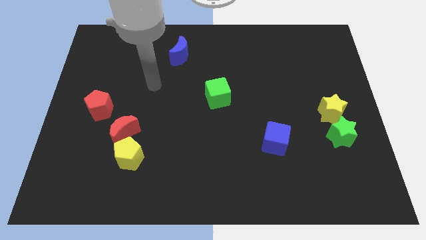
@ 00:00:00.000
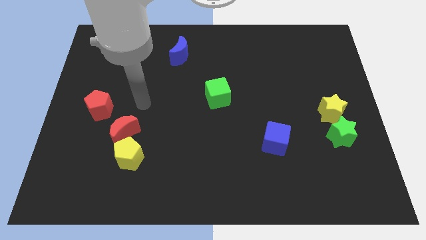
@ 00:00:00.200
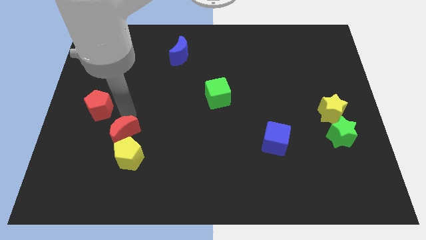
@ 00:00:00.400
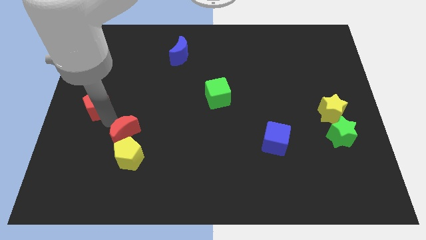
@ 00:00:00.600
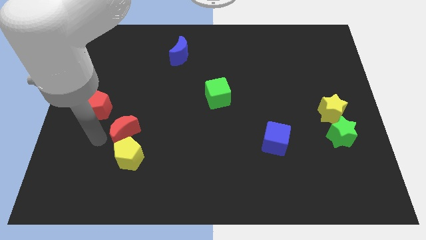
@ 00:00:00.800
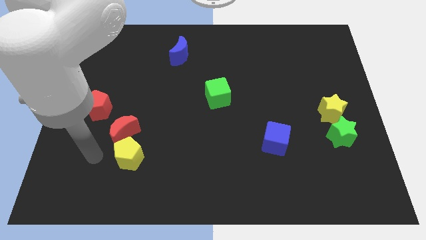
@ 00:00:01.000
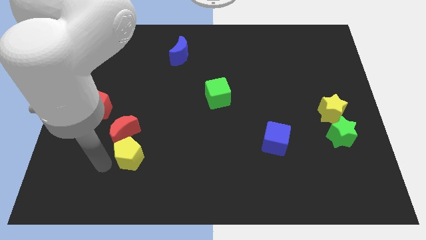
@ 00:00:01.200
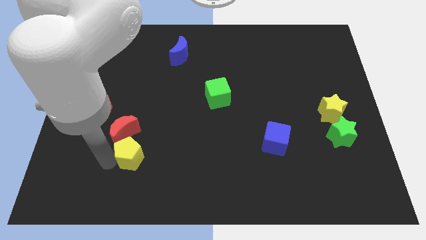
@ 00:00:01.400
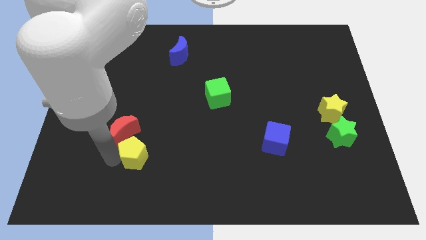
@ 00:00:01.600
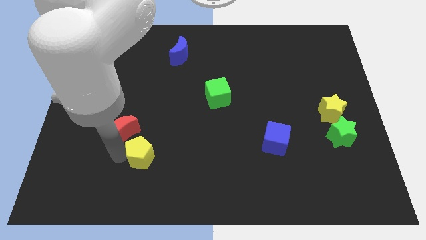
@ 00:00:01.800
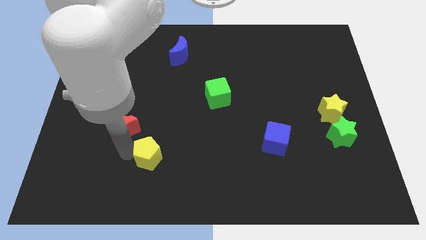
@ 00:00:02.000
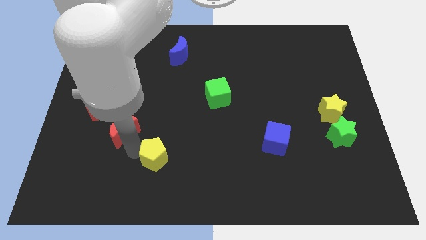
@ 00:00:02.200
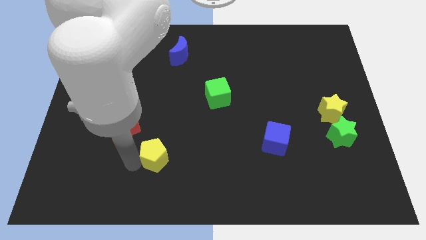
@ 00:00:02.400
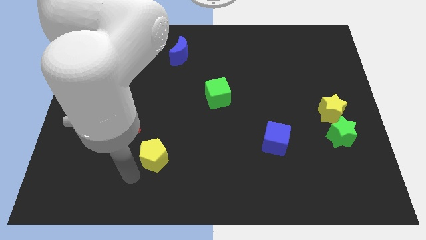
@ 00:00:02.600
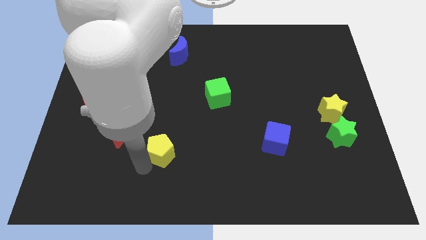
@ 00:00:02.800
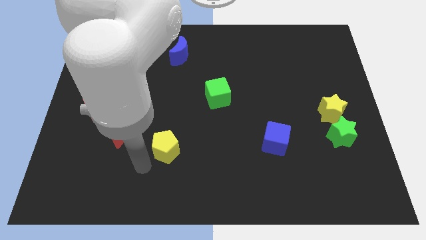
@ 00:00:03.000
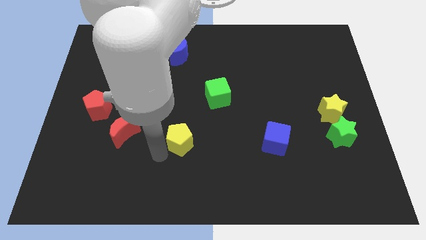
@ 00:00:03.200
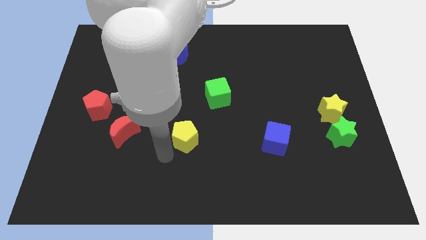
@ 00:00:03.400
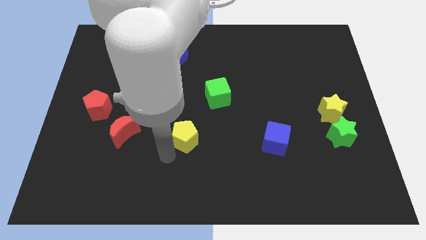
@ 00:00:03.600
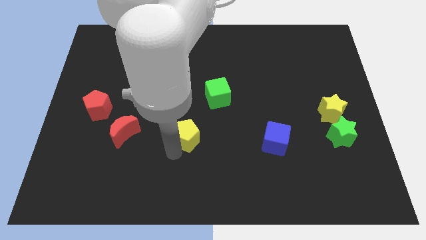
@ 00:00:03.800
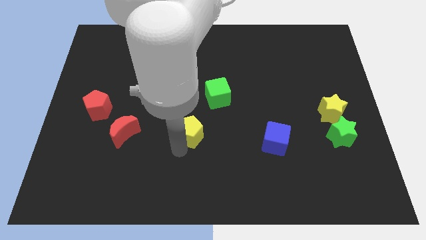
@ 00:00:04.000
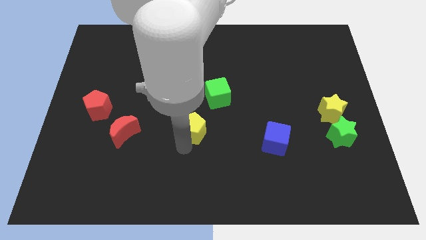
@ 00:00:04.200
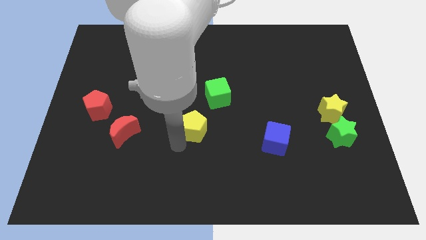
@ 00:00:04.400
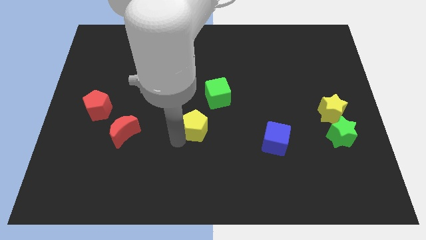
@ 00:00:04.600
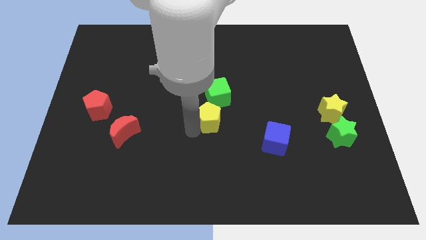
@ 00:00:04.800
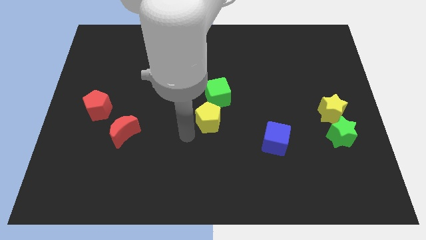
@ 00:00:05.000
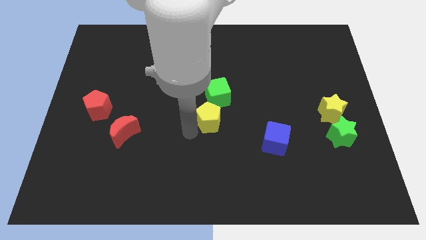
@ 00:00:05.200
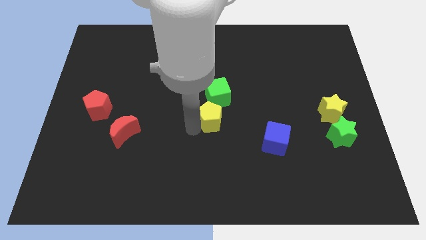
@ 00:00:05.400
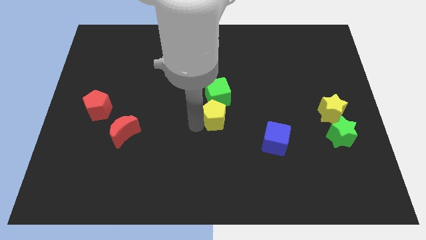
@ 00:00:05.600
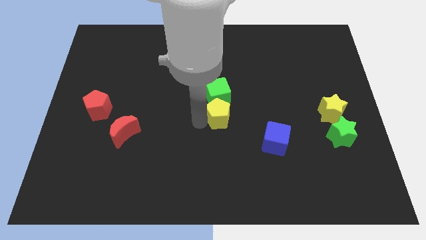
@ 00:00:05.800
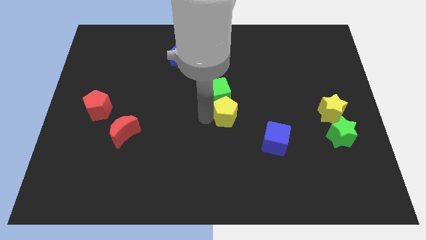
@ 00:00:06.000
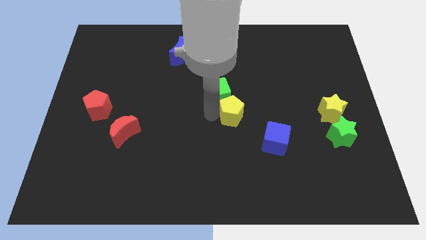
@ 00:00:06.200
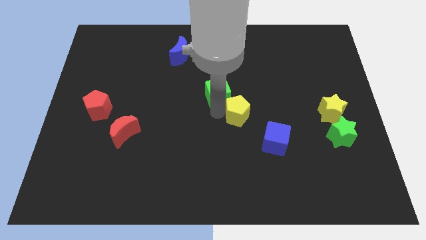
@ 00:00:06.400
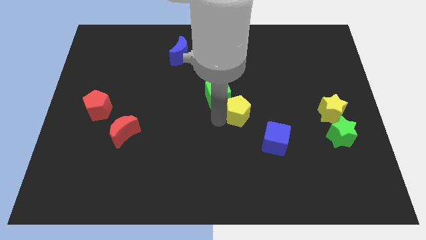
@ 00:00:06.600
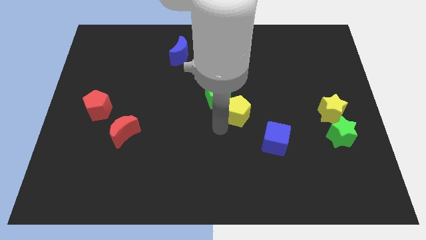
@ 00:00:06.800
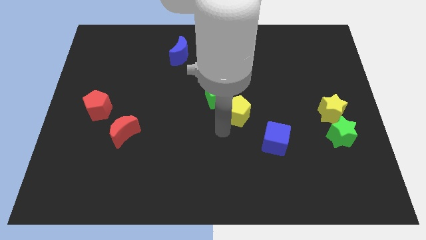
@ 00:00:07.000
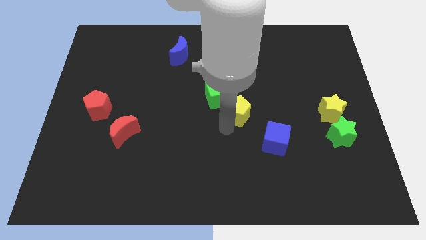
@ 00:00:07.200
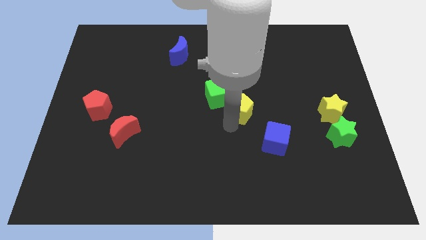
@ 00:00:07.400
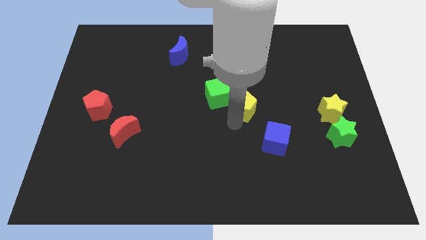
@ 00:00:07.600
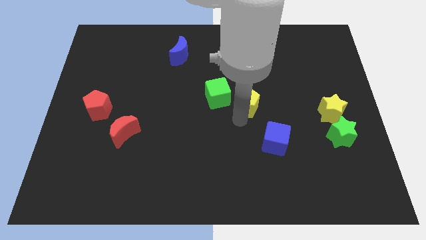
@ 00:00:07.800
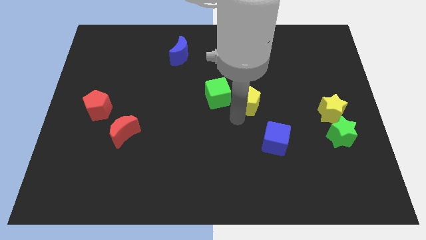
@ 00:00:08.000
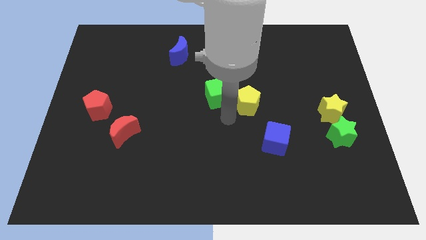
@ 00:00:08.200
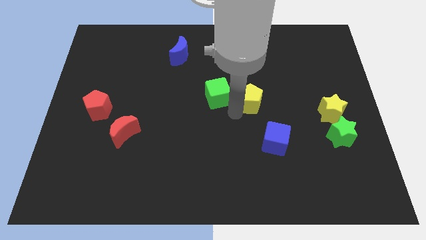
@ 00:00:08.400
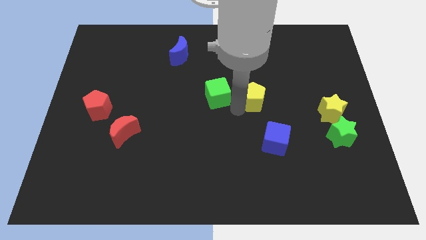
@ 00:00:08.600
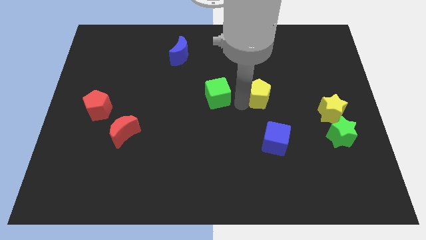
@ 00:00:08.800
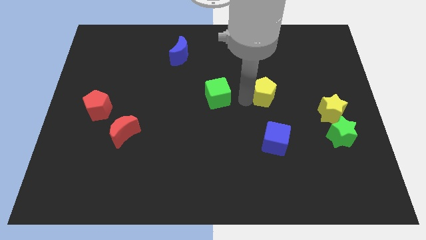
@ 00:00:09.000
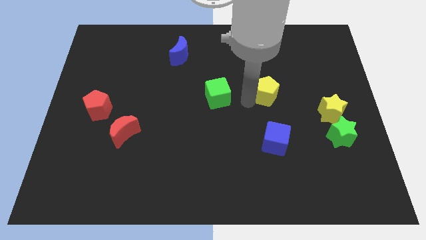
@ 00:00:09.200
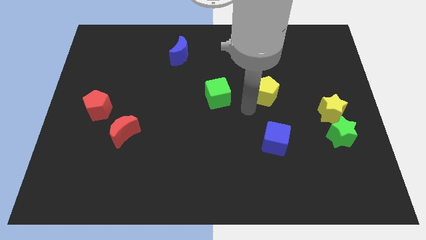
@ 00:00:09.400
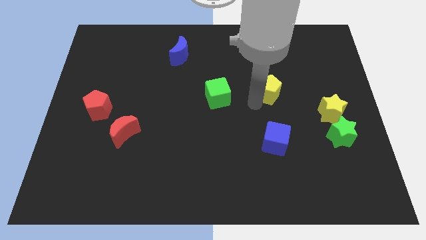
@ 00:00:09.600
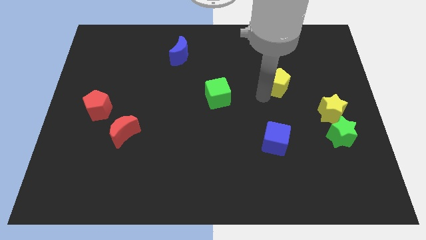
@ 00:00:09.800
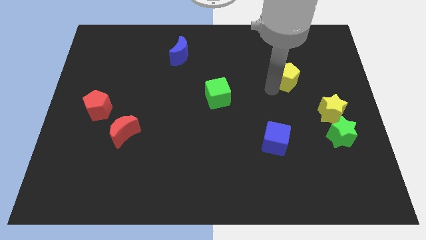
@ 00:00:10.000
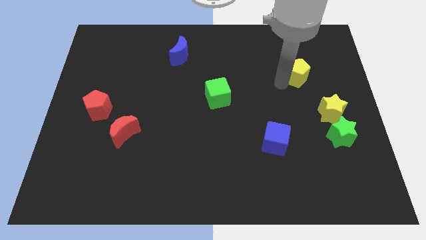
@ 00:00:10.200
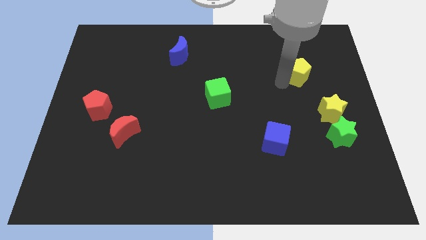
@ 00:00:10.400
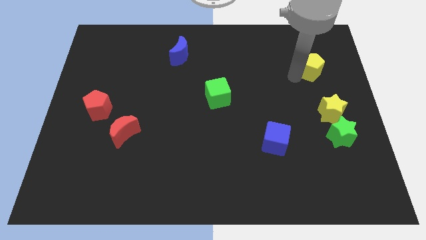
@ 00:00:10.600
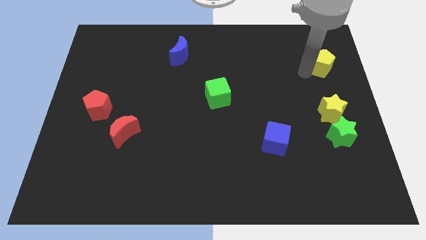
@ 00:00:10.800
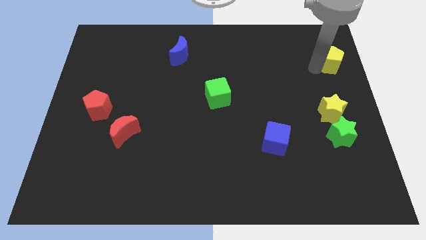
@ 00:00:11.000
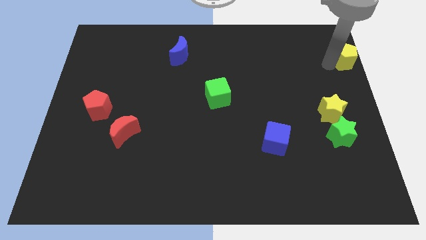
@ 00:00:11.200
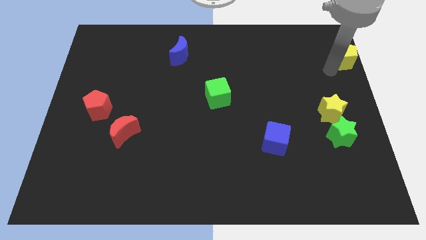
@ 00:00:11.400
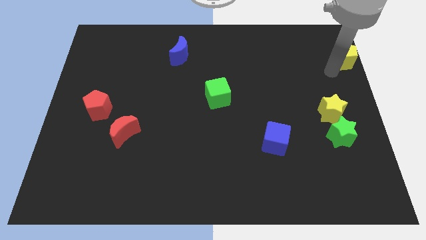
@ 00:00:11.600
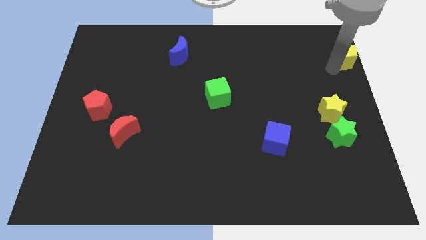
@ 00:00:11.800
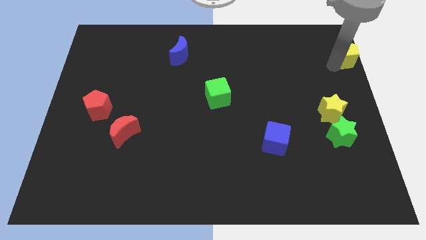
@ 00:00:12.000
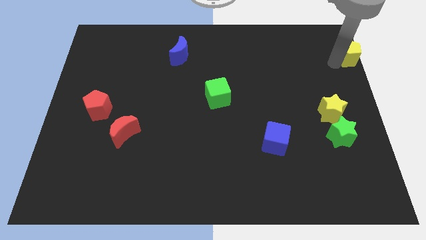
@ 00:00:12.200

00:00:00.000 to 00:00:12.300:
push the yellow pentagon to the upper right corner

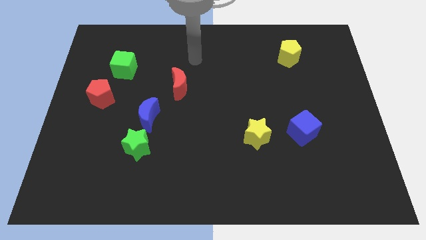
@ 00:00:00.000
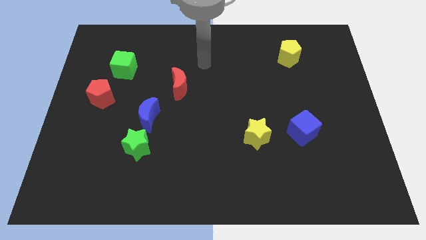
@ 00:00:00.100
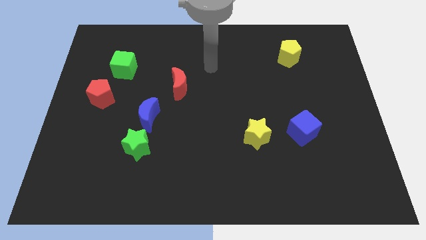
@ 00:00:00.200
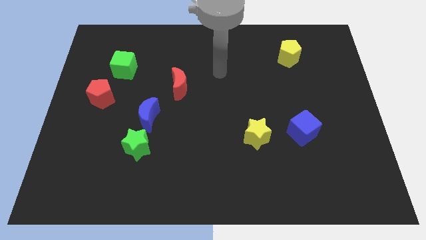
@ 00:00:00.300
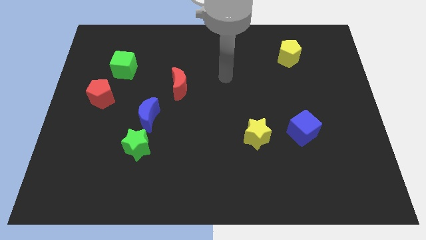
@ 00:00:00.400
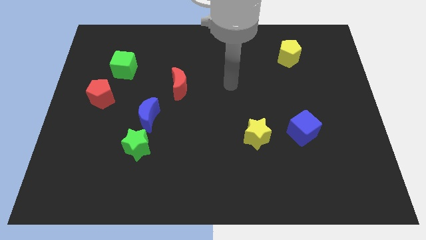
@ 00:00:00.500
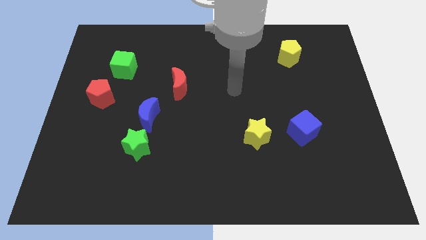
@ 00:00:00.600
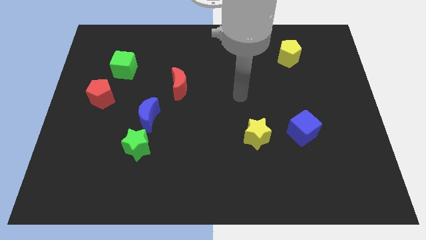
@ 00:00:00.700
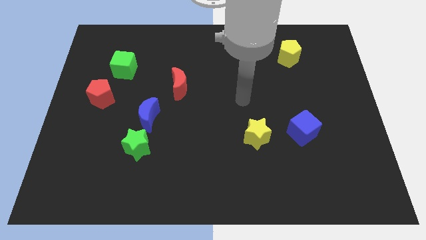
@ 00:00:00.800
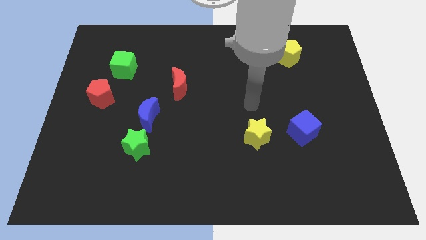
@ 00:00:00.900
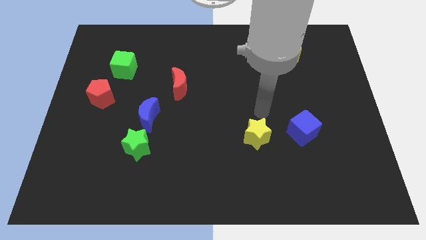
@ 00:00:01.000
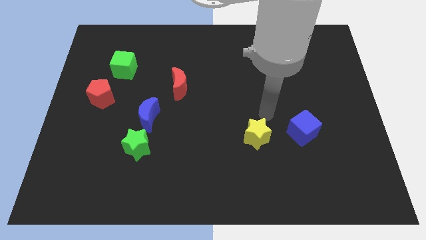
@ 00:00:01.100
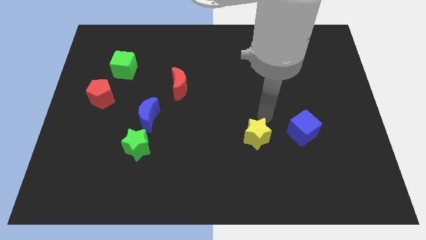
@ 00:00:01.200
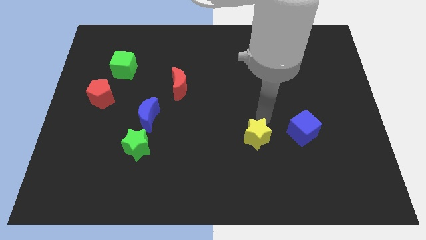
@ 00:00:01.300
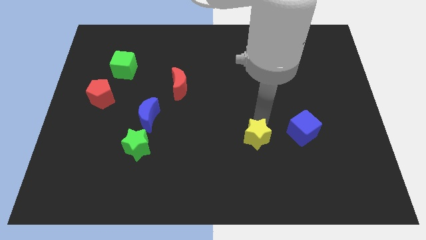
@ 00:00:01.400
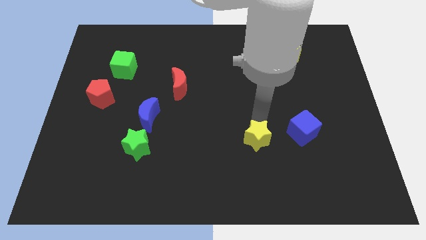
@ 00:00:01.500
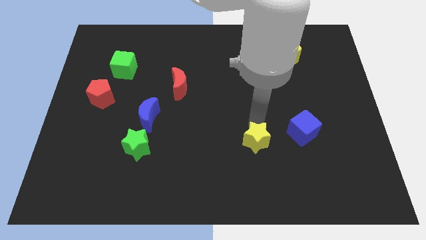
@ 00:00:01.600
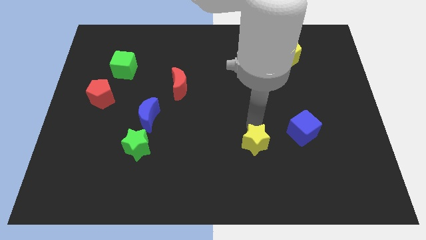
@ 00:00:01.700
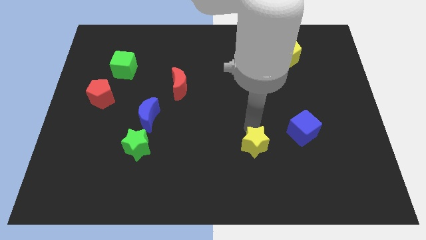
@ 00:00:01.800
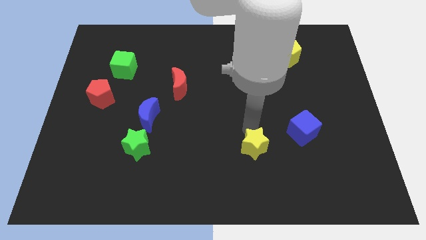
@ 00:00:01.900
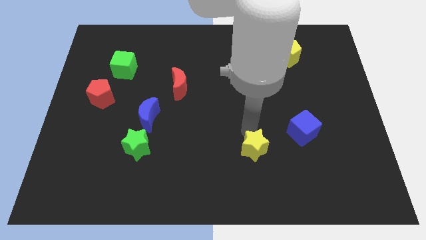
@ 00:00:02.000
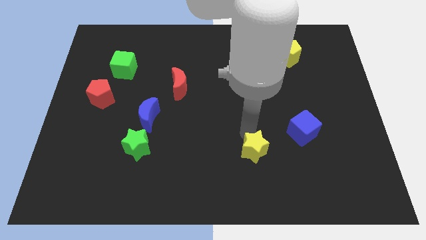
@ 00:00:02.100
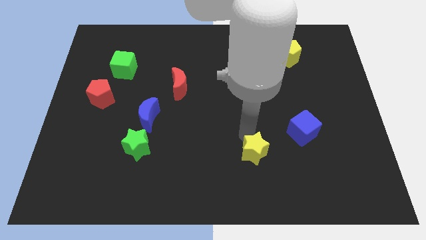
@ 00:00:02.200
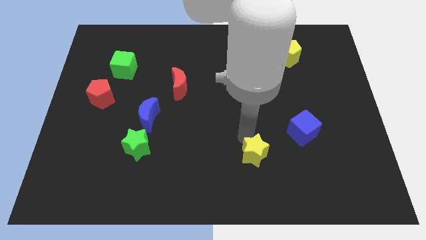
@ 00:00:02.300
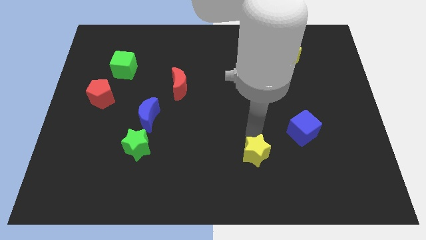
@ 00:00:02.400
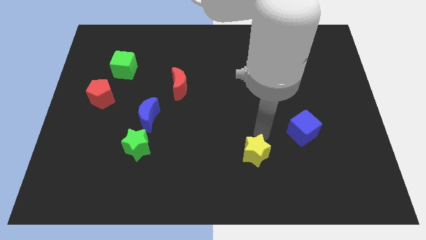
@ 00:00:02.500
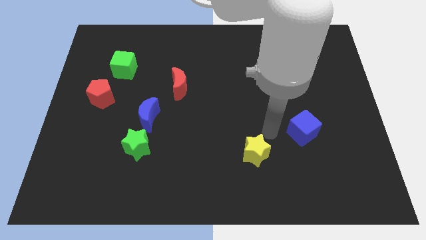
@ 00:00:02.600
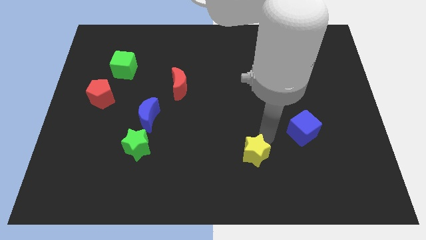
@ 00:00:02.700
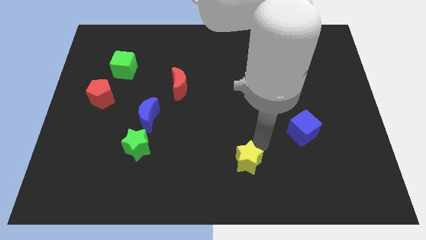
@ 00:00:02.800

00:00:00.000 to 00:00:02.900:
move the yellow star to the bottom
